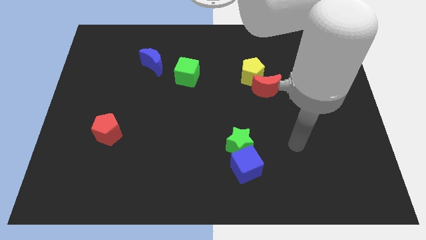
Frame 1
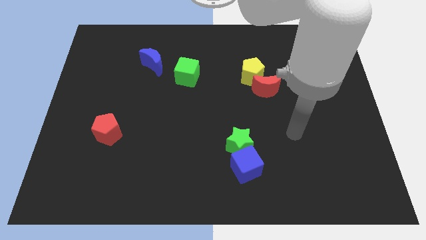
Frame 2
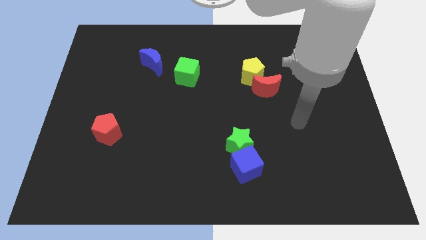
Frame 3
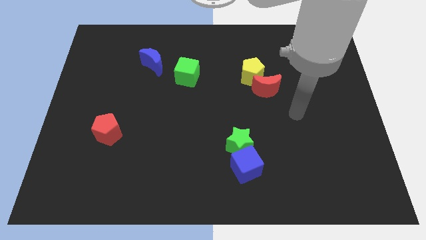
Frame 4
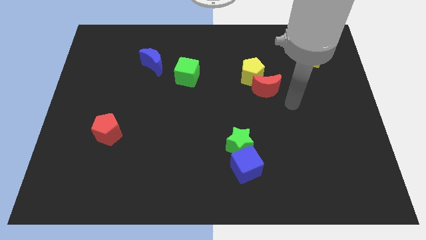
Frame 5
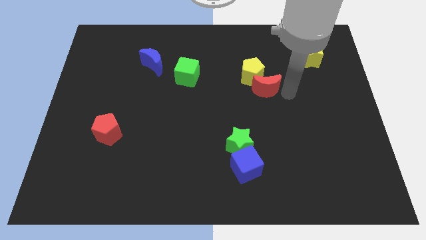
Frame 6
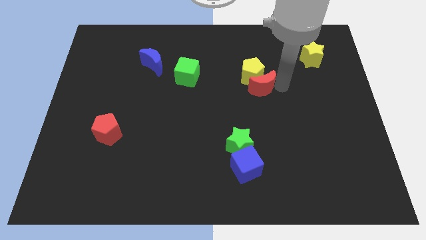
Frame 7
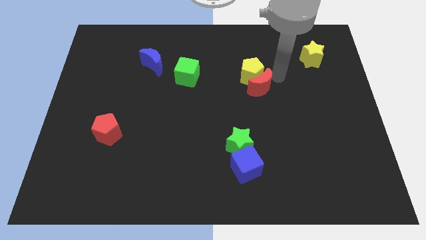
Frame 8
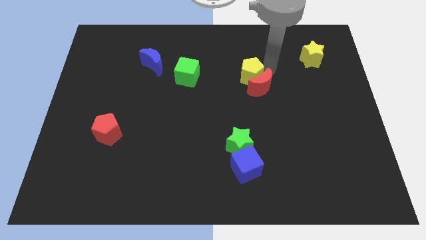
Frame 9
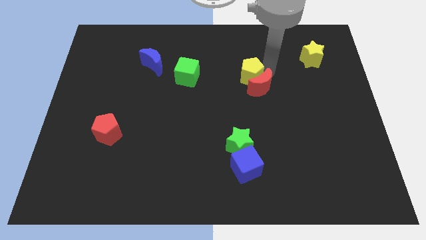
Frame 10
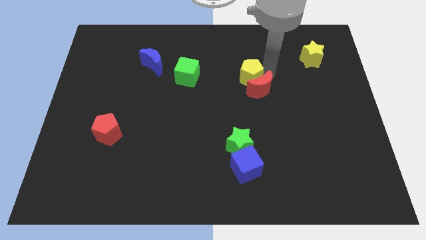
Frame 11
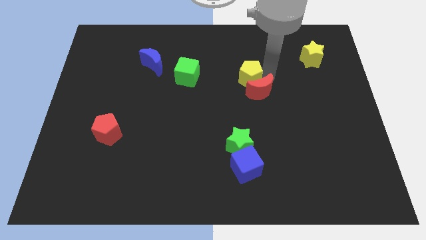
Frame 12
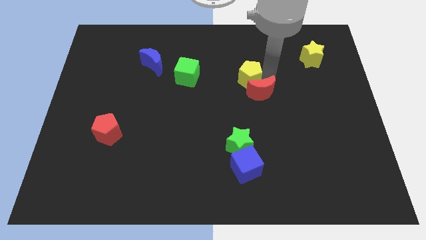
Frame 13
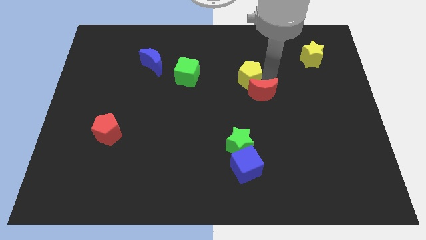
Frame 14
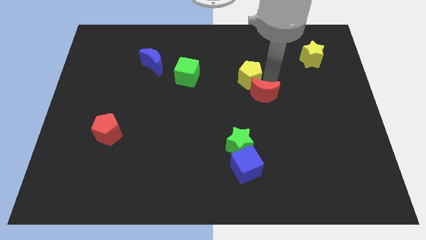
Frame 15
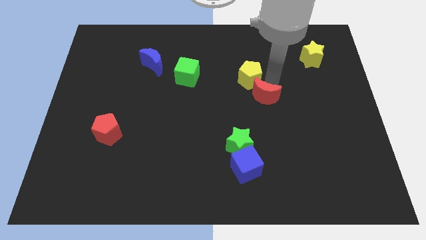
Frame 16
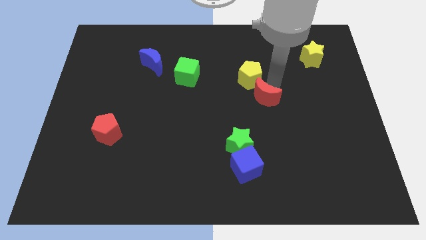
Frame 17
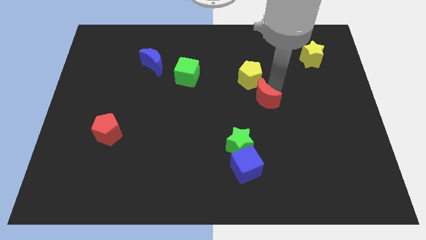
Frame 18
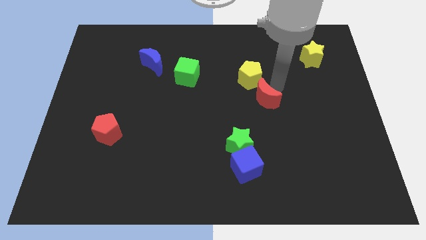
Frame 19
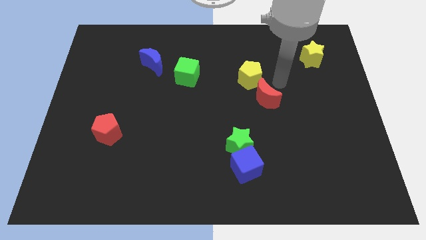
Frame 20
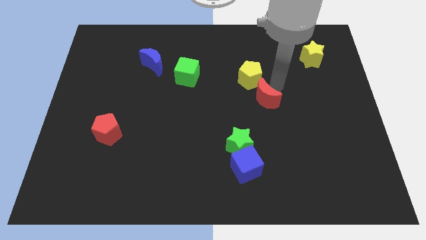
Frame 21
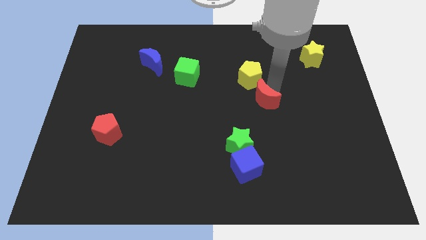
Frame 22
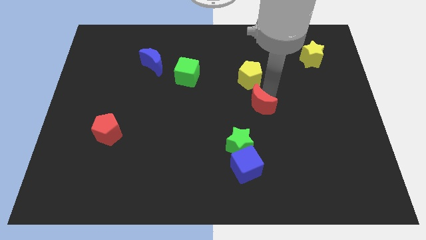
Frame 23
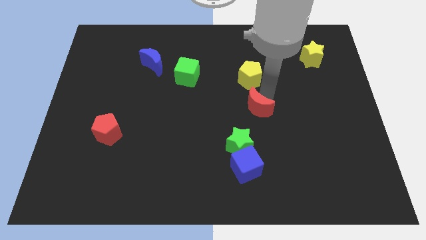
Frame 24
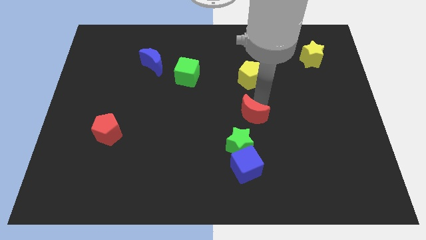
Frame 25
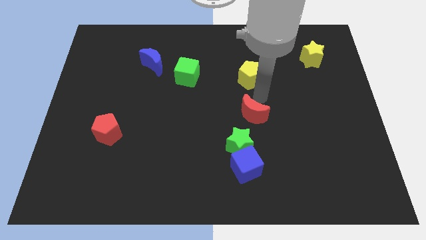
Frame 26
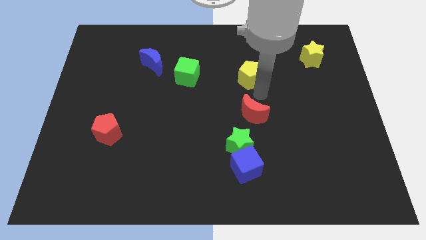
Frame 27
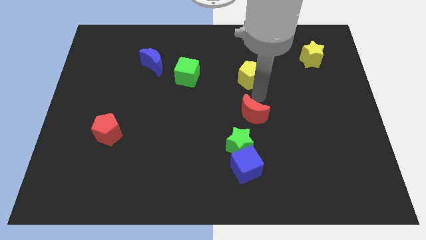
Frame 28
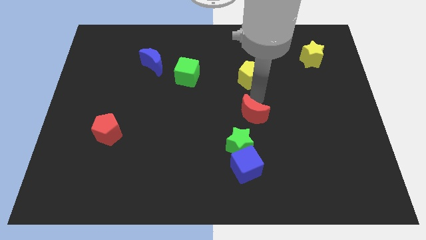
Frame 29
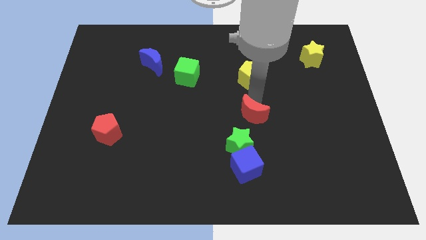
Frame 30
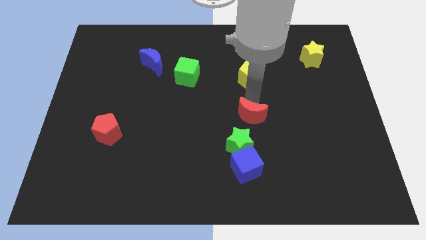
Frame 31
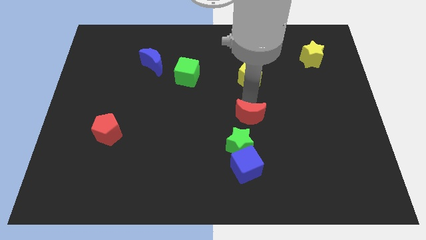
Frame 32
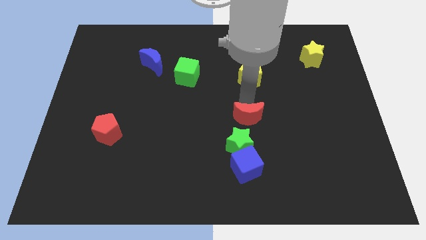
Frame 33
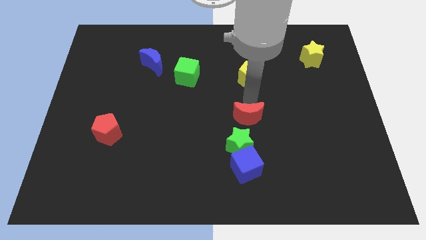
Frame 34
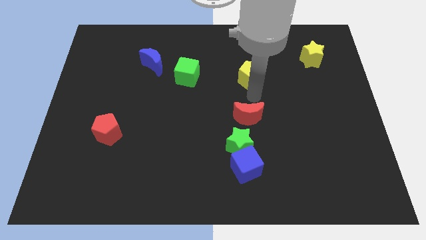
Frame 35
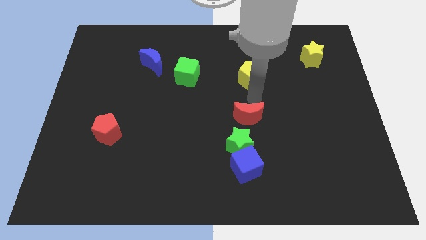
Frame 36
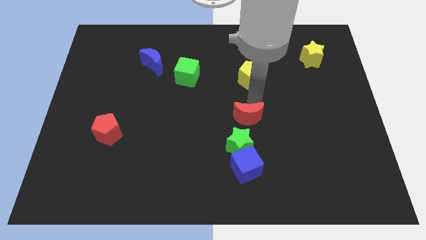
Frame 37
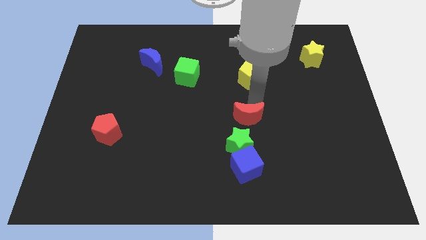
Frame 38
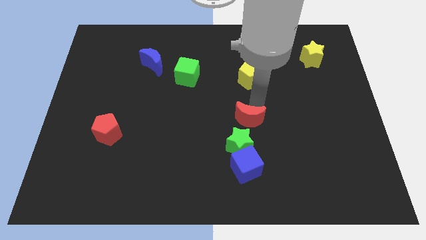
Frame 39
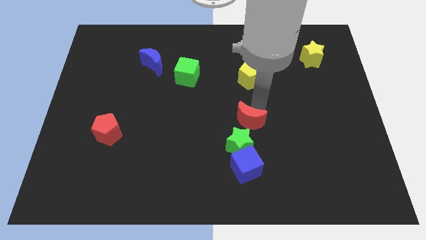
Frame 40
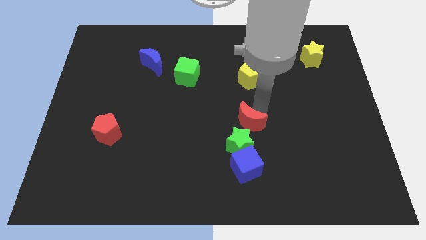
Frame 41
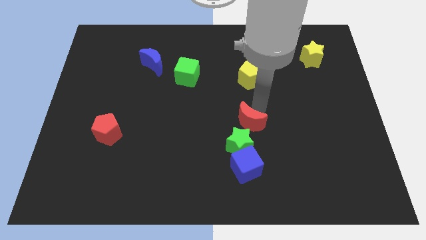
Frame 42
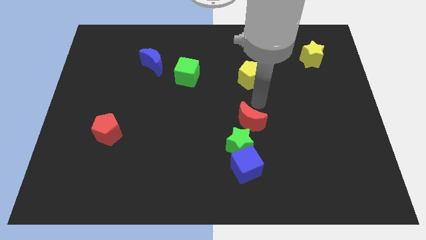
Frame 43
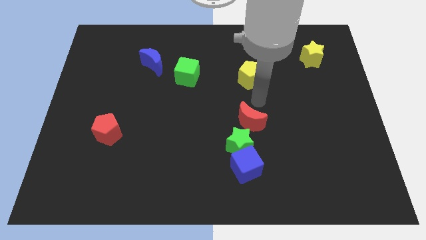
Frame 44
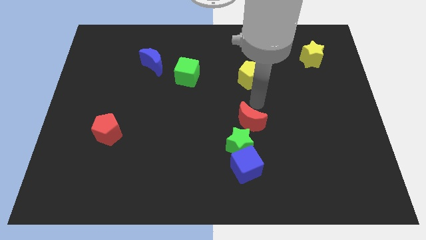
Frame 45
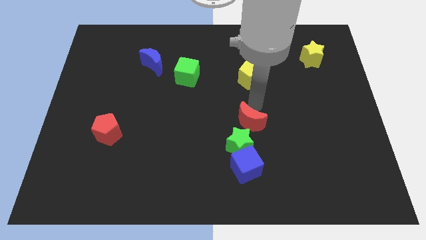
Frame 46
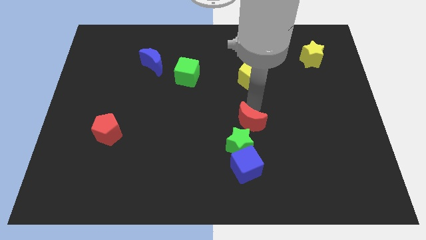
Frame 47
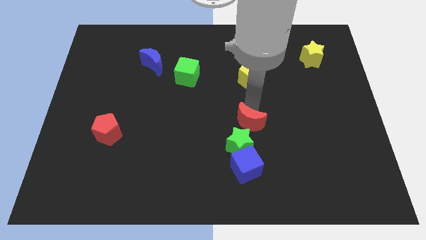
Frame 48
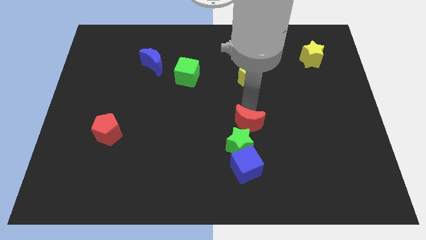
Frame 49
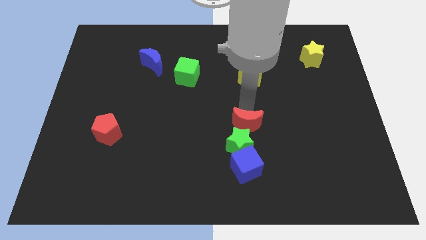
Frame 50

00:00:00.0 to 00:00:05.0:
put the red moon to the green star

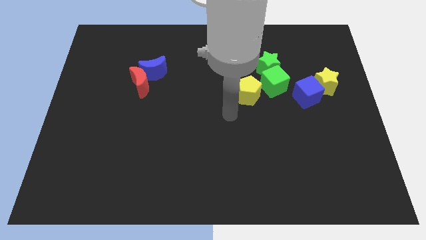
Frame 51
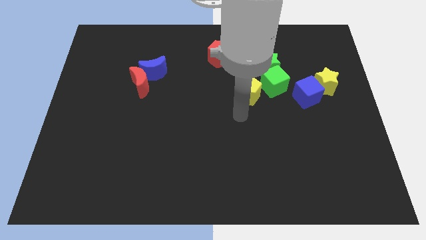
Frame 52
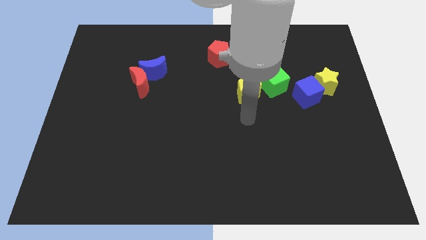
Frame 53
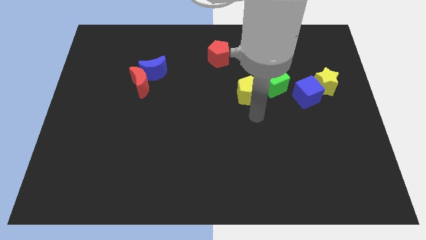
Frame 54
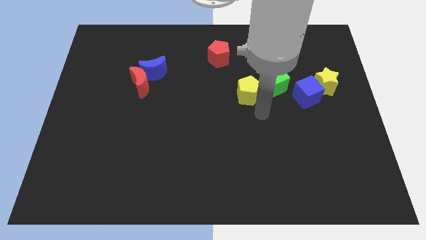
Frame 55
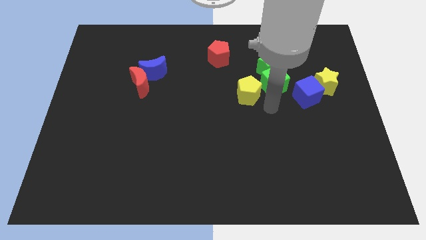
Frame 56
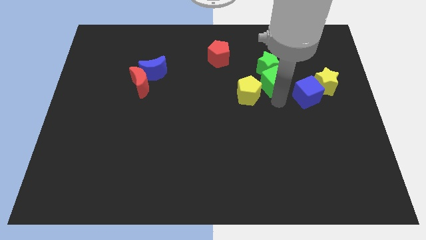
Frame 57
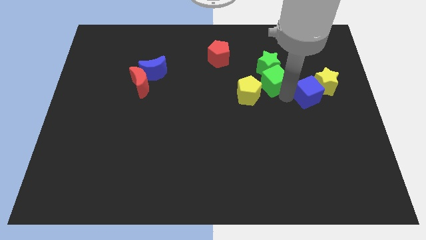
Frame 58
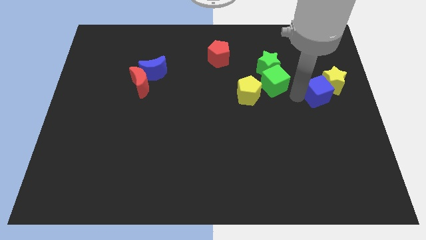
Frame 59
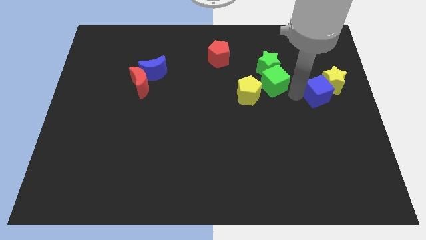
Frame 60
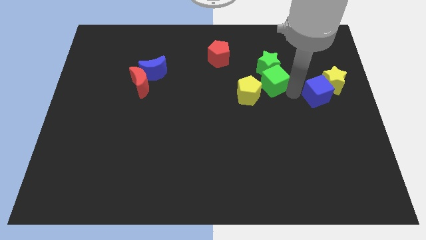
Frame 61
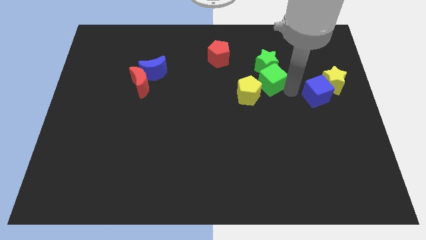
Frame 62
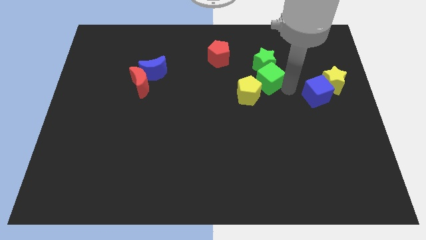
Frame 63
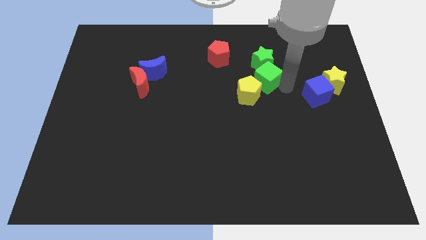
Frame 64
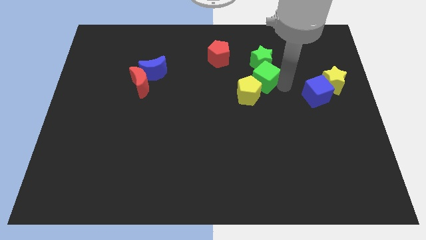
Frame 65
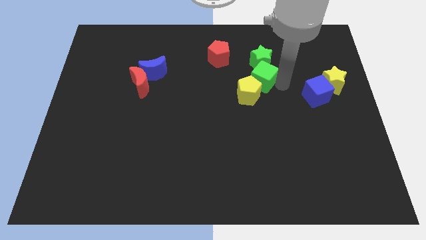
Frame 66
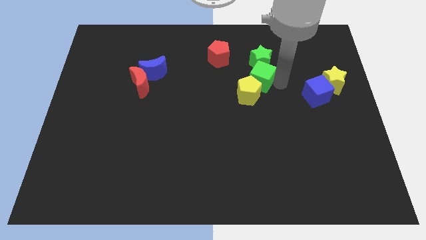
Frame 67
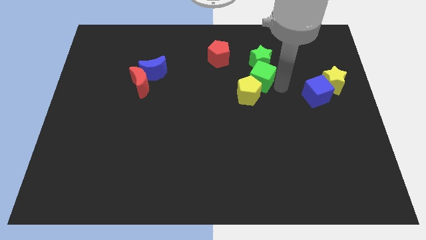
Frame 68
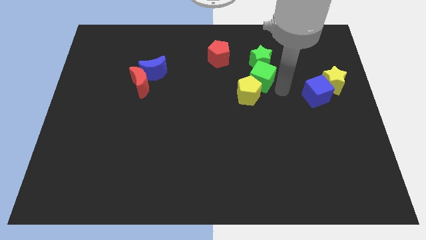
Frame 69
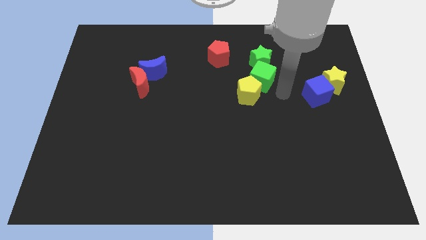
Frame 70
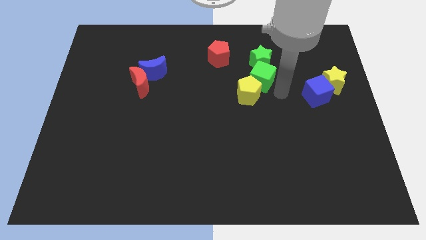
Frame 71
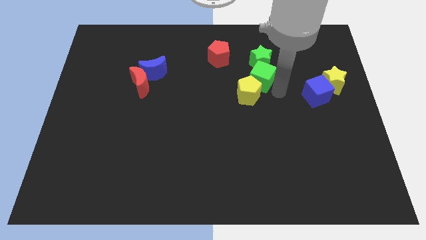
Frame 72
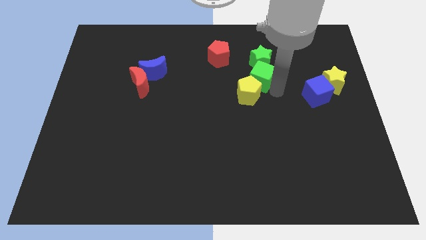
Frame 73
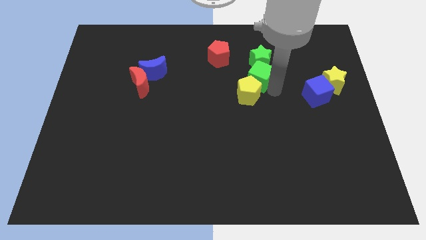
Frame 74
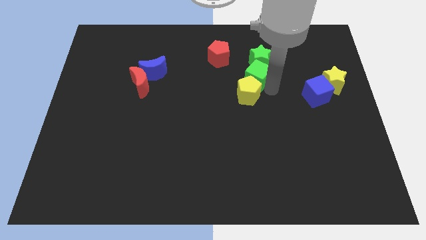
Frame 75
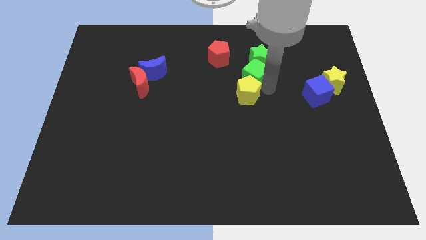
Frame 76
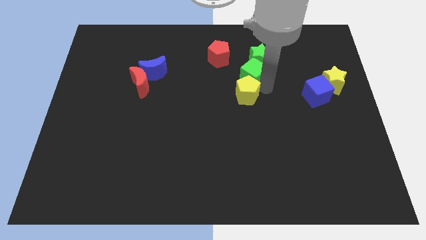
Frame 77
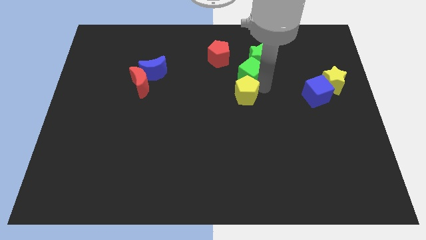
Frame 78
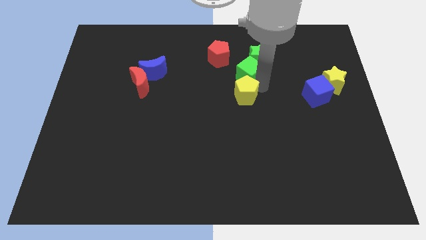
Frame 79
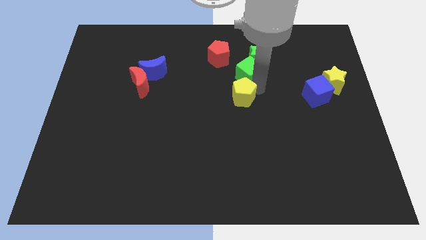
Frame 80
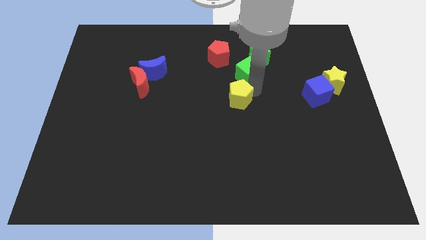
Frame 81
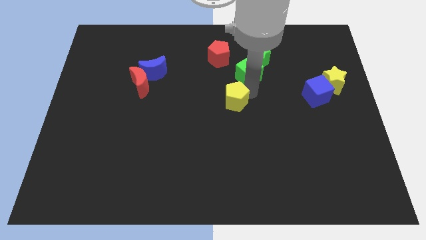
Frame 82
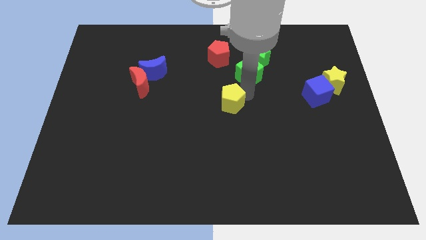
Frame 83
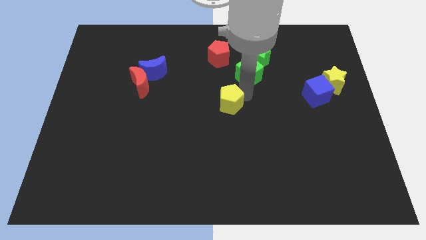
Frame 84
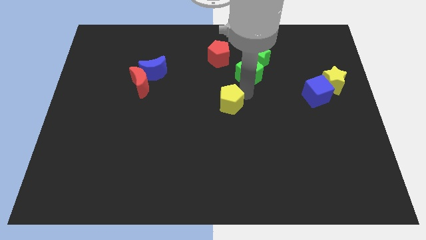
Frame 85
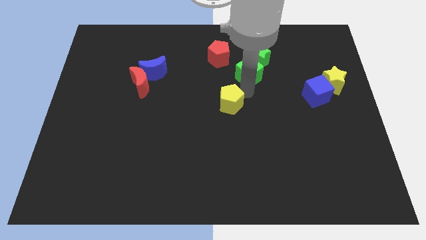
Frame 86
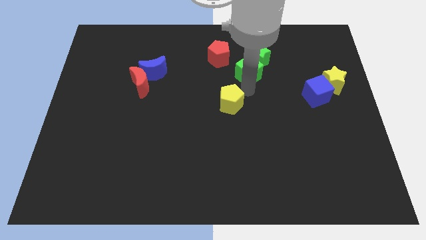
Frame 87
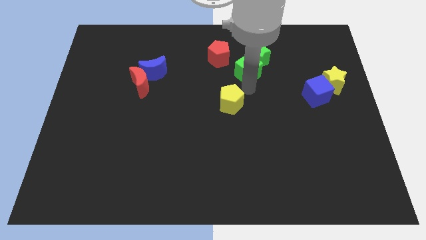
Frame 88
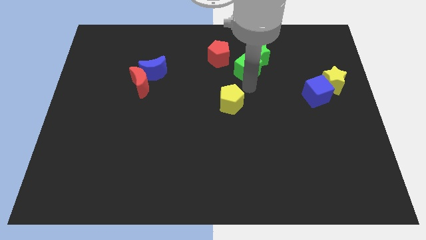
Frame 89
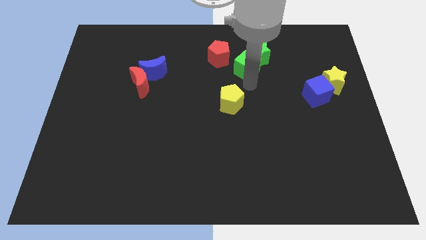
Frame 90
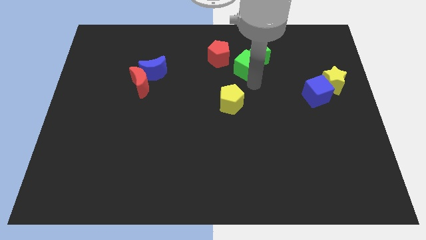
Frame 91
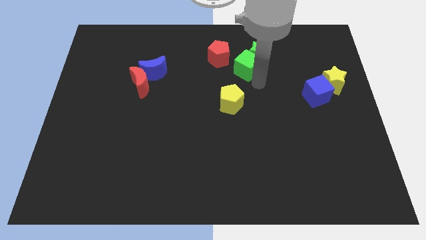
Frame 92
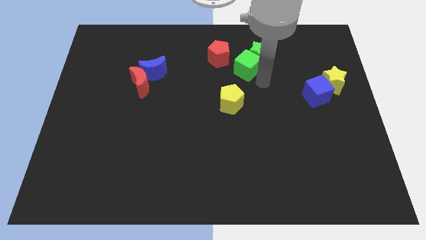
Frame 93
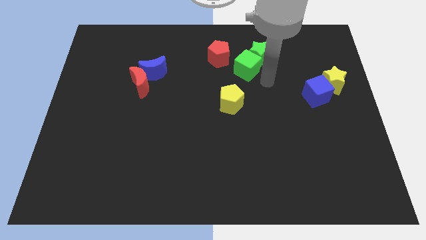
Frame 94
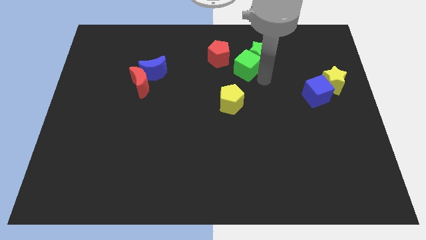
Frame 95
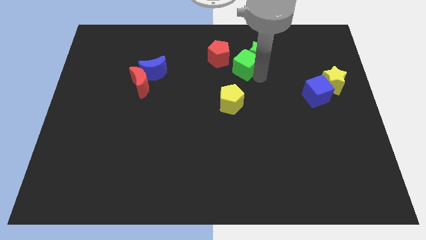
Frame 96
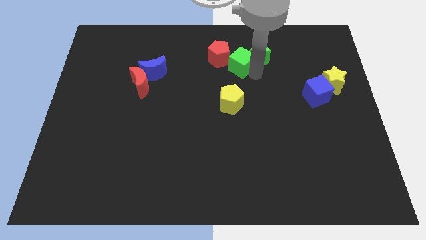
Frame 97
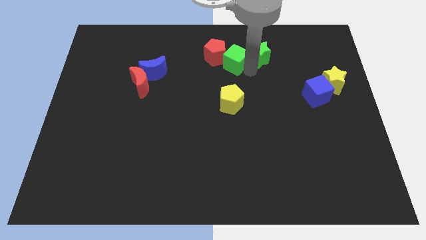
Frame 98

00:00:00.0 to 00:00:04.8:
push the green cube to the red pentagon
